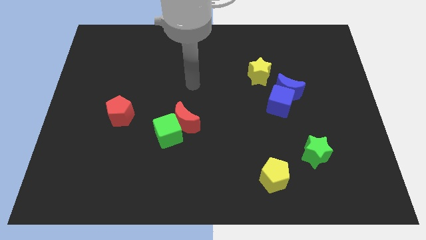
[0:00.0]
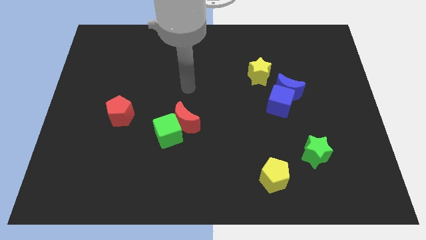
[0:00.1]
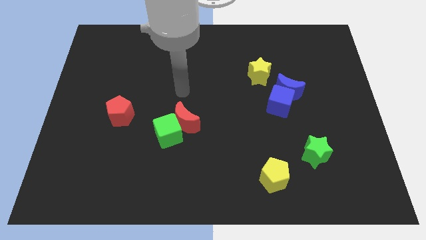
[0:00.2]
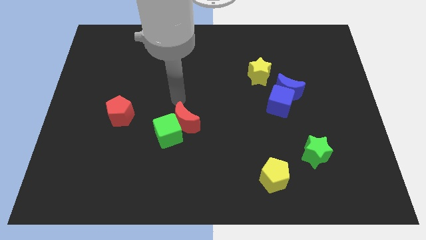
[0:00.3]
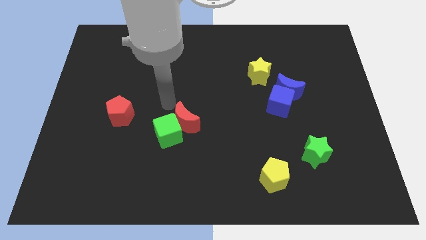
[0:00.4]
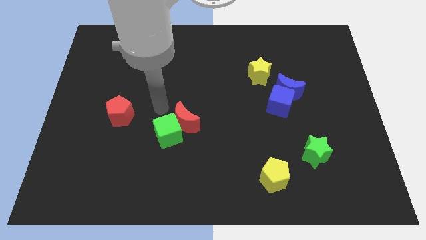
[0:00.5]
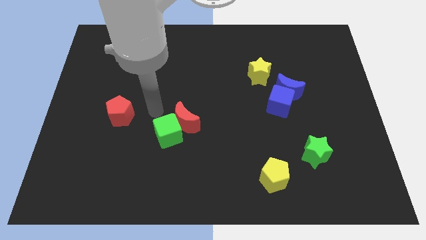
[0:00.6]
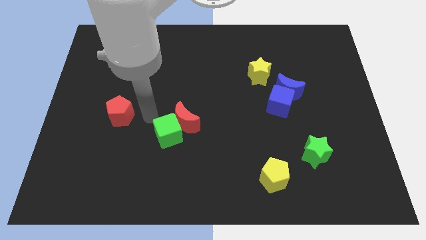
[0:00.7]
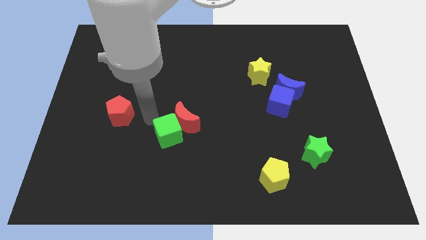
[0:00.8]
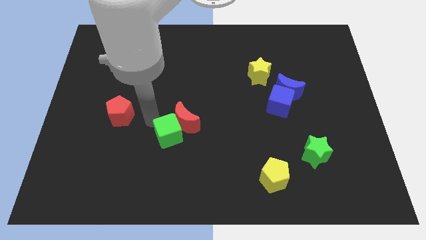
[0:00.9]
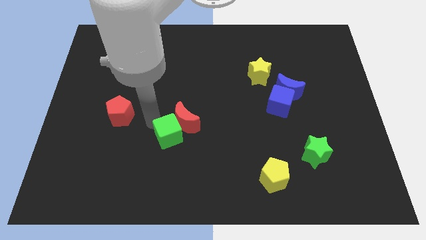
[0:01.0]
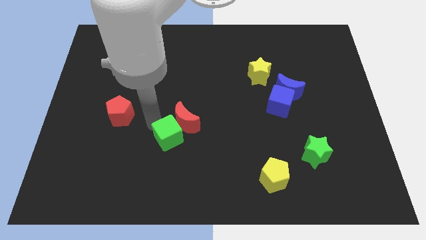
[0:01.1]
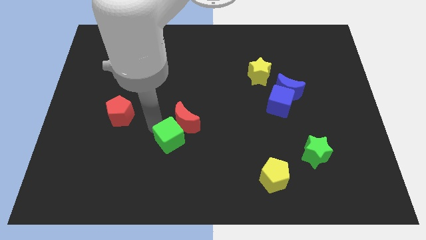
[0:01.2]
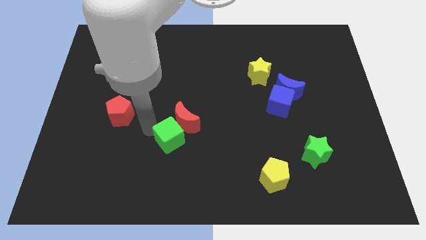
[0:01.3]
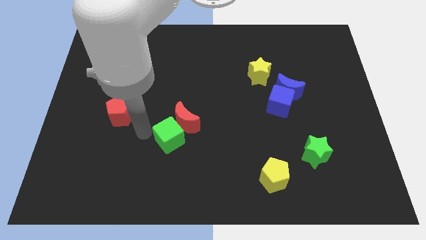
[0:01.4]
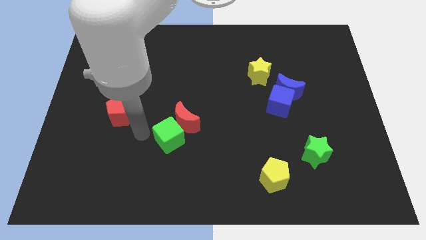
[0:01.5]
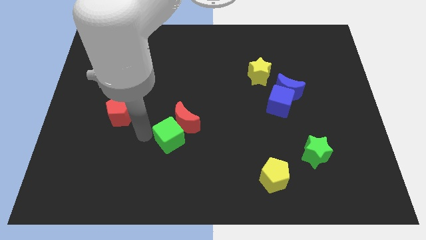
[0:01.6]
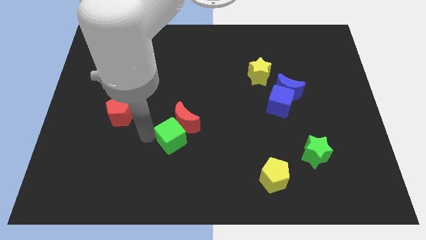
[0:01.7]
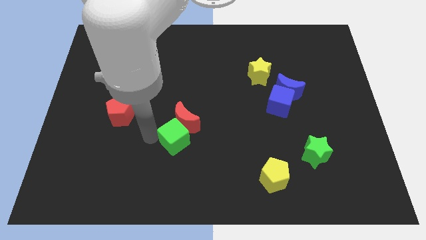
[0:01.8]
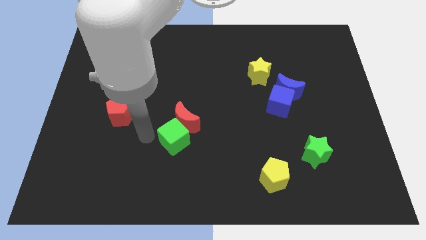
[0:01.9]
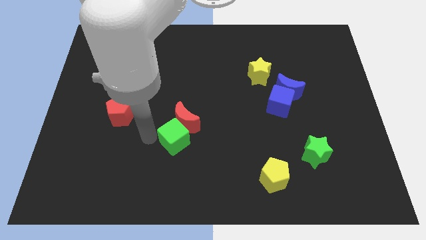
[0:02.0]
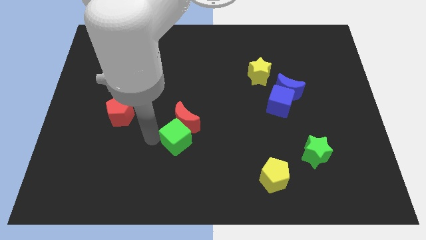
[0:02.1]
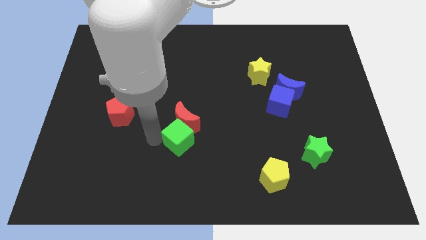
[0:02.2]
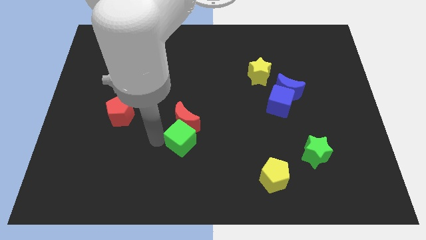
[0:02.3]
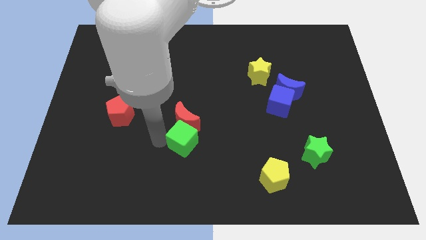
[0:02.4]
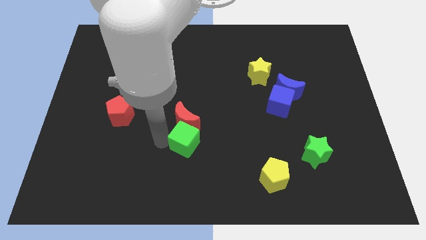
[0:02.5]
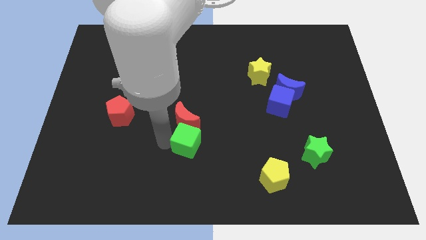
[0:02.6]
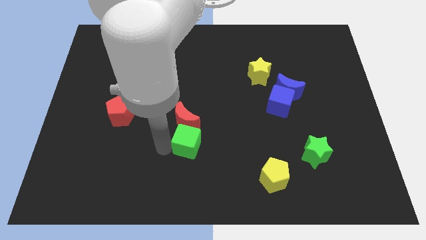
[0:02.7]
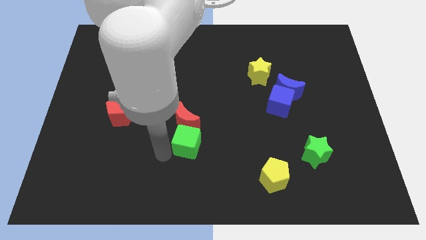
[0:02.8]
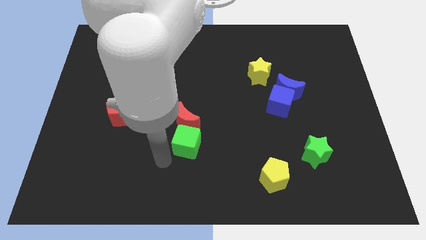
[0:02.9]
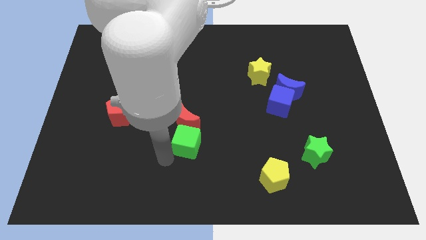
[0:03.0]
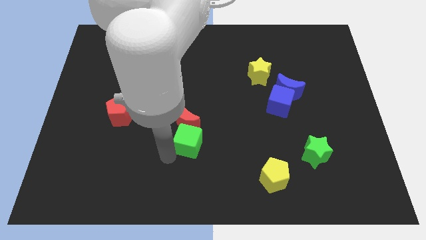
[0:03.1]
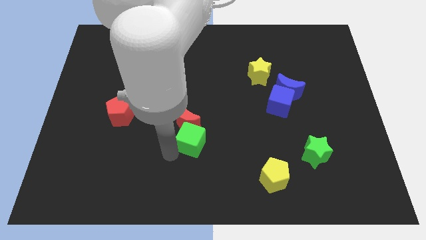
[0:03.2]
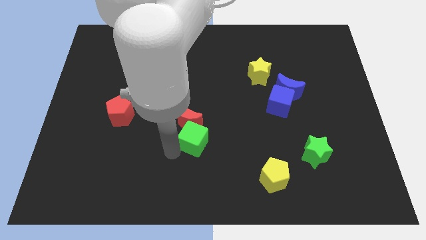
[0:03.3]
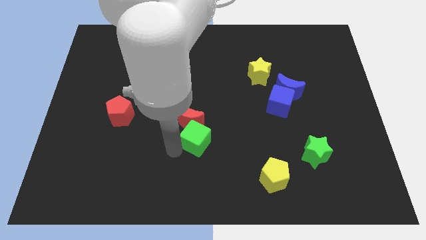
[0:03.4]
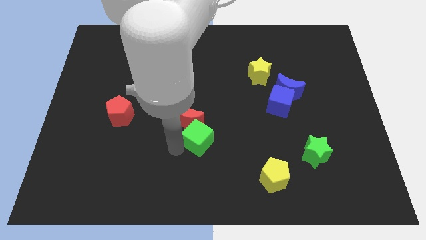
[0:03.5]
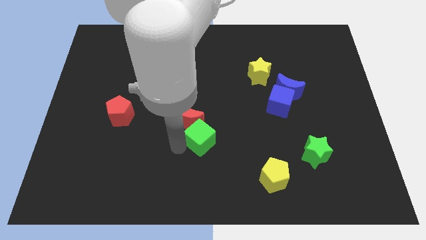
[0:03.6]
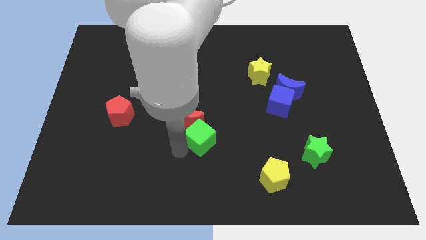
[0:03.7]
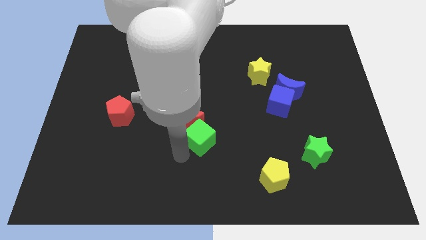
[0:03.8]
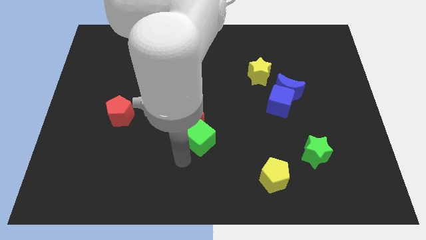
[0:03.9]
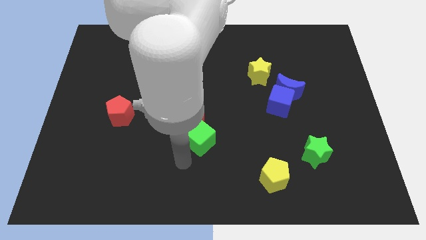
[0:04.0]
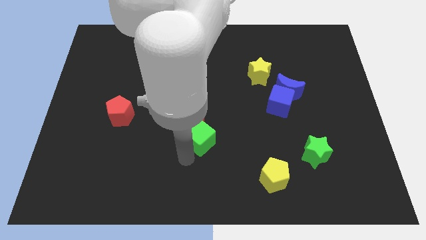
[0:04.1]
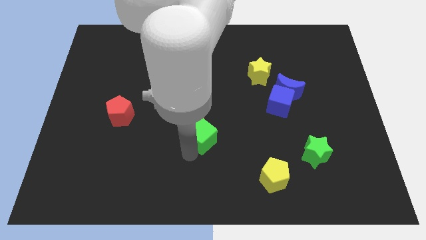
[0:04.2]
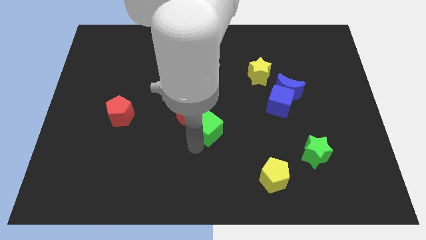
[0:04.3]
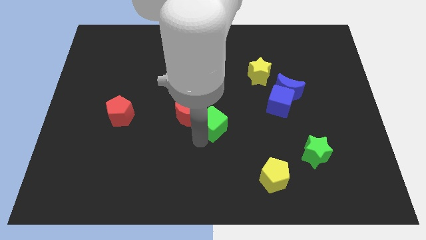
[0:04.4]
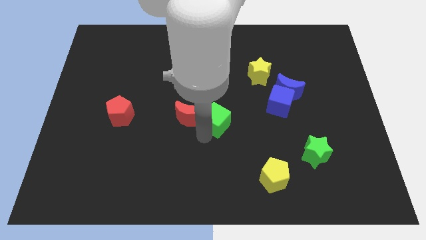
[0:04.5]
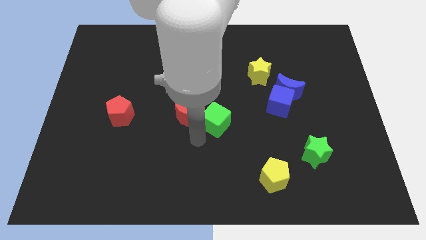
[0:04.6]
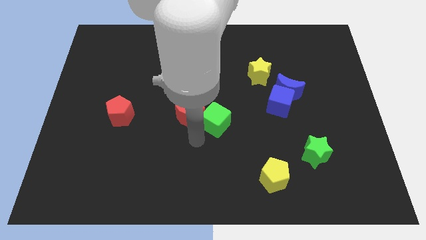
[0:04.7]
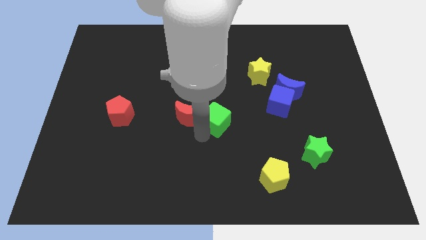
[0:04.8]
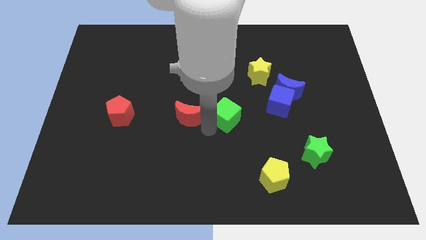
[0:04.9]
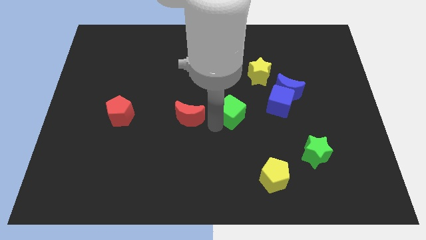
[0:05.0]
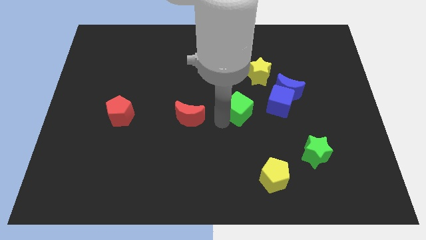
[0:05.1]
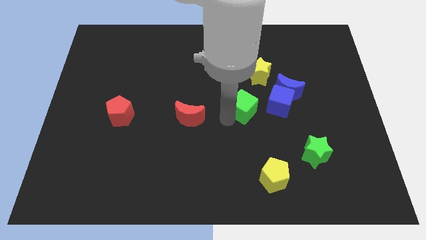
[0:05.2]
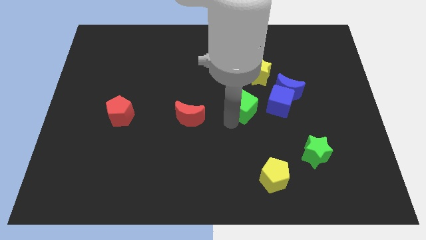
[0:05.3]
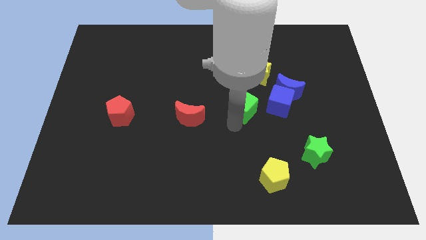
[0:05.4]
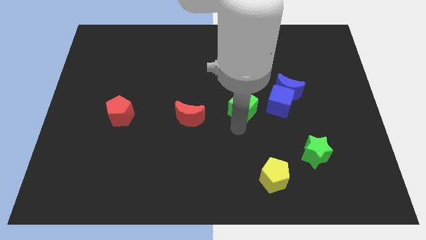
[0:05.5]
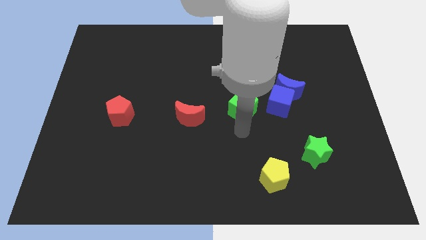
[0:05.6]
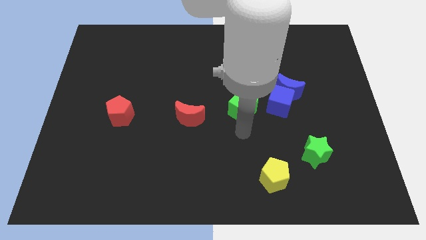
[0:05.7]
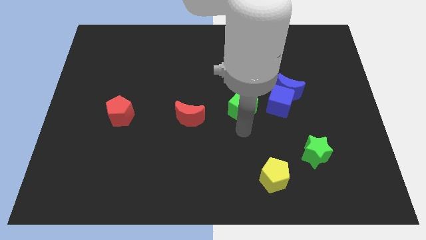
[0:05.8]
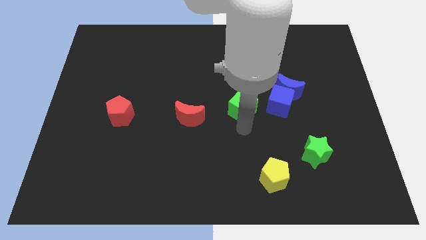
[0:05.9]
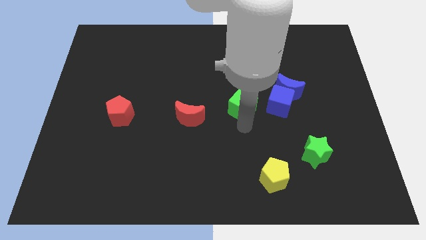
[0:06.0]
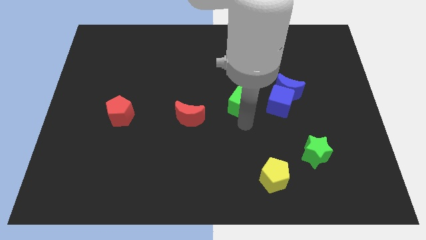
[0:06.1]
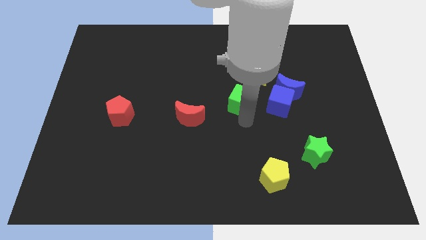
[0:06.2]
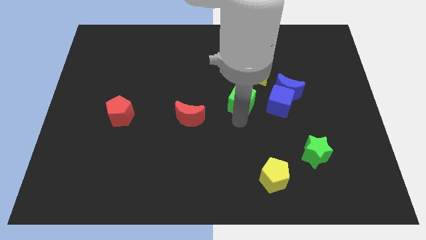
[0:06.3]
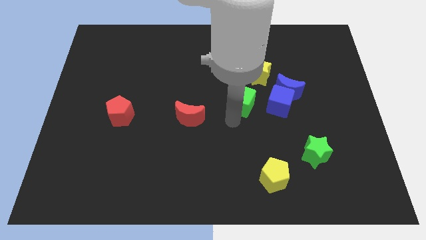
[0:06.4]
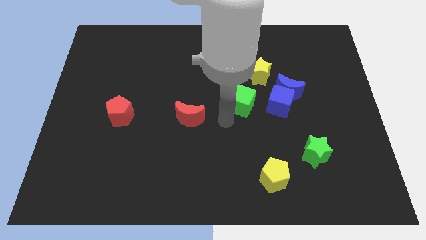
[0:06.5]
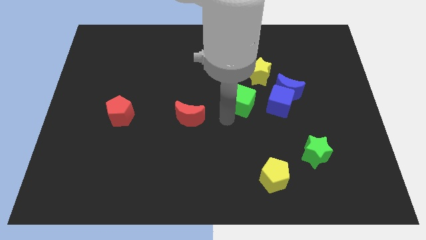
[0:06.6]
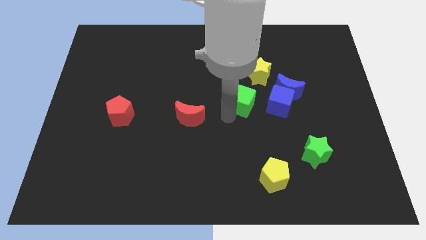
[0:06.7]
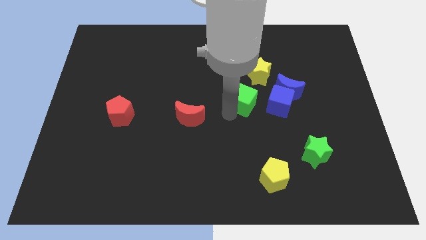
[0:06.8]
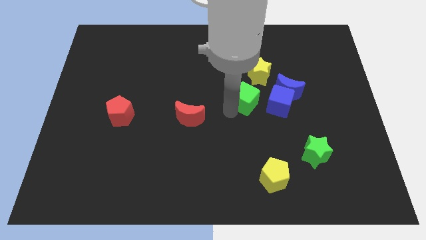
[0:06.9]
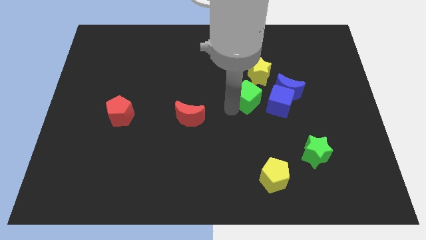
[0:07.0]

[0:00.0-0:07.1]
slide the green cube to the top left side of the blue cube
